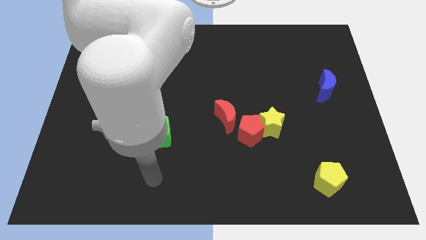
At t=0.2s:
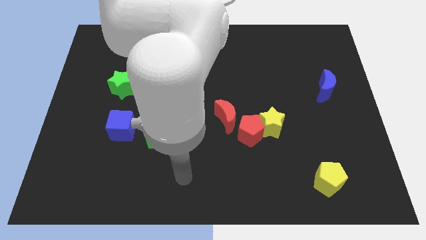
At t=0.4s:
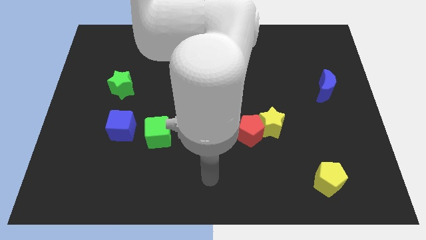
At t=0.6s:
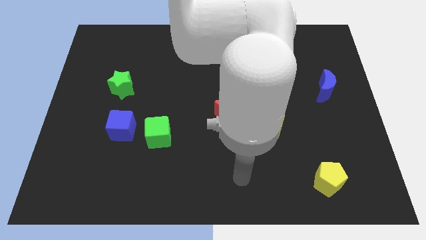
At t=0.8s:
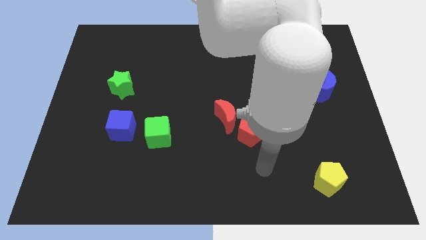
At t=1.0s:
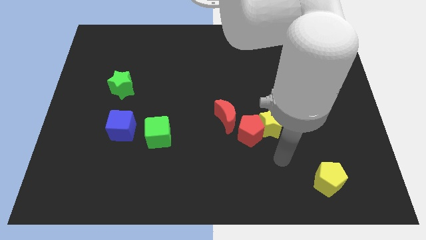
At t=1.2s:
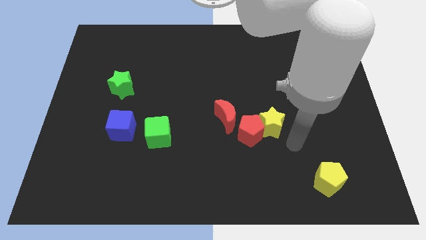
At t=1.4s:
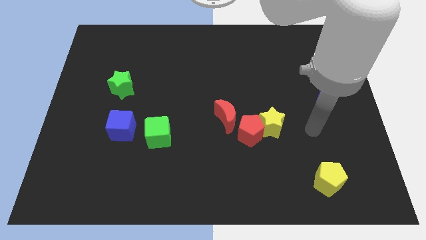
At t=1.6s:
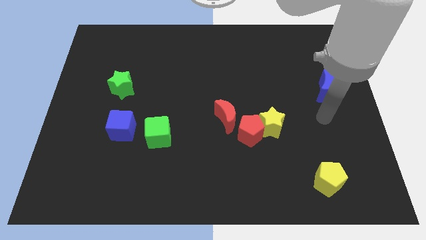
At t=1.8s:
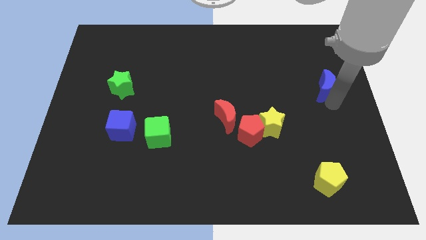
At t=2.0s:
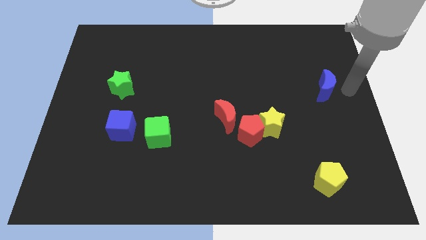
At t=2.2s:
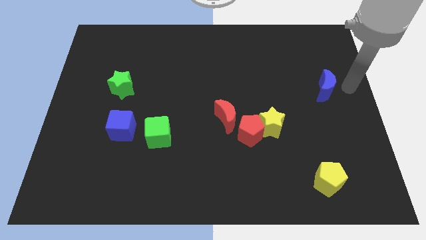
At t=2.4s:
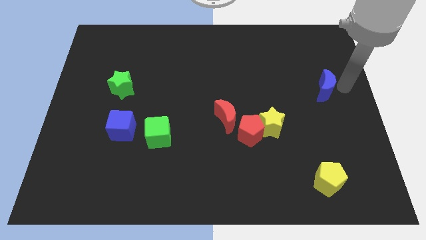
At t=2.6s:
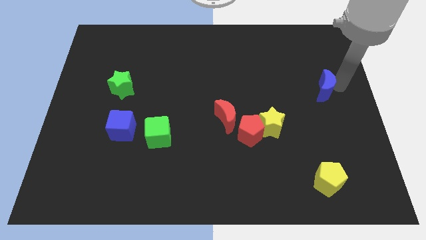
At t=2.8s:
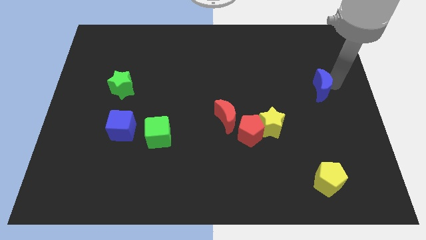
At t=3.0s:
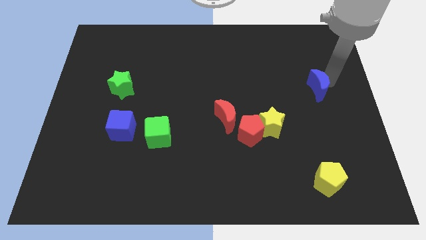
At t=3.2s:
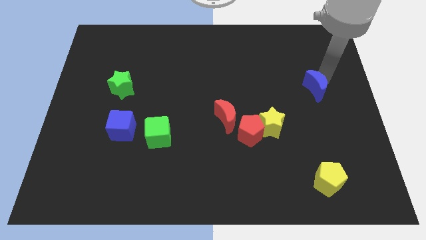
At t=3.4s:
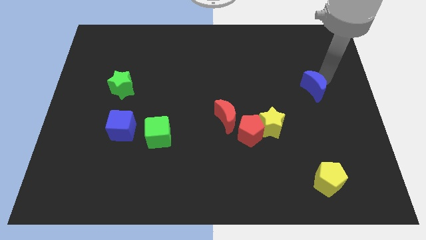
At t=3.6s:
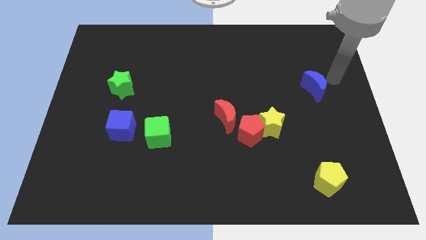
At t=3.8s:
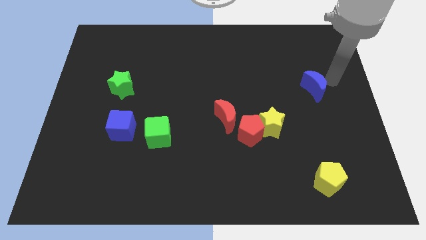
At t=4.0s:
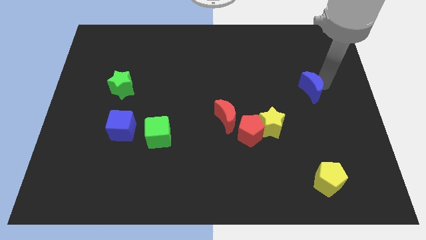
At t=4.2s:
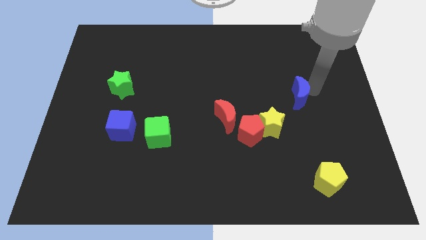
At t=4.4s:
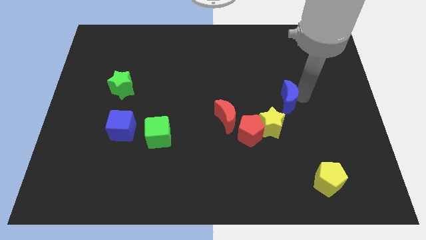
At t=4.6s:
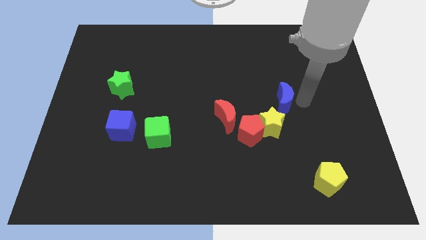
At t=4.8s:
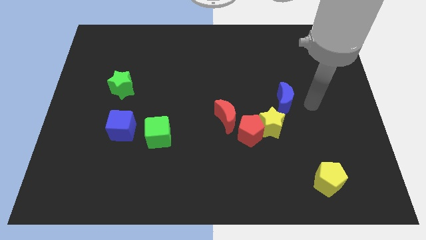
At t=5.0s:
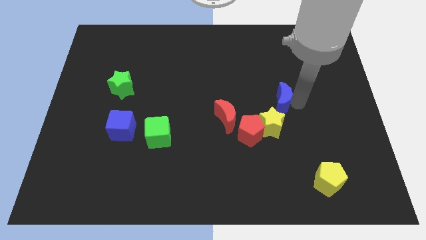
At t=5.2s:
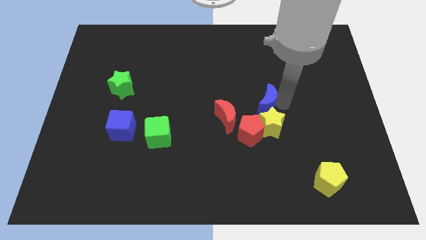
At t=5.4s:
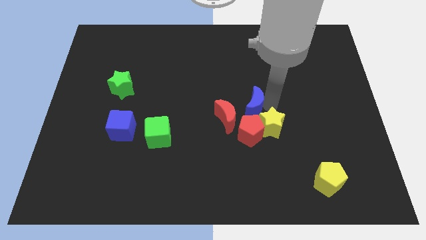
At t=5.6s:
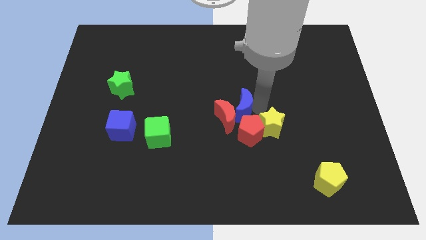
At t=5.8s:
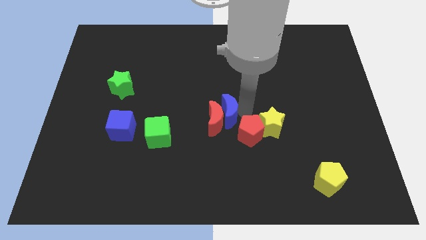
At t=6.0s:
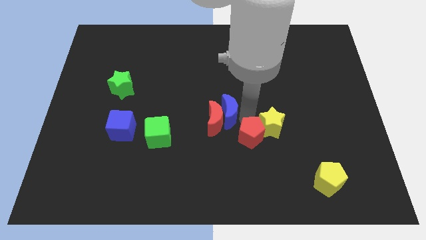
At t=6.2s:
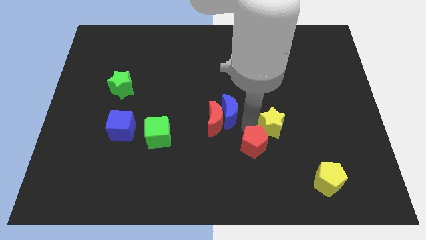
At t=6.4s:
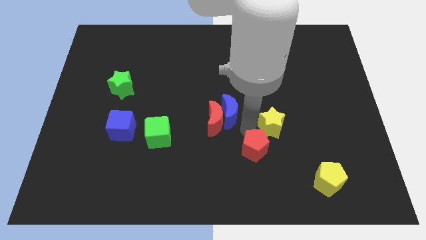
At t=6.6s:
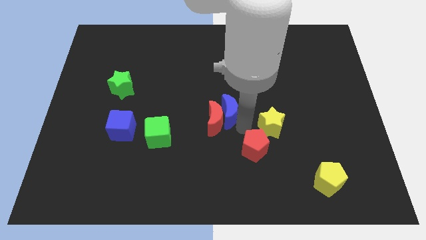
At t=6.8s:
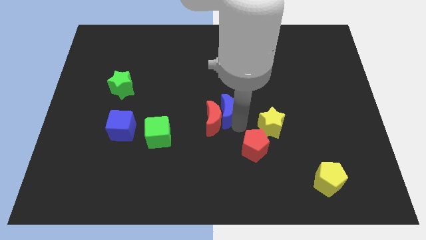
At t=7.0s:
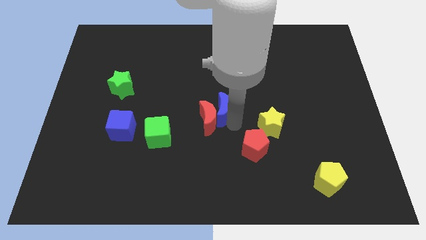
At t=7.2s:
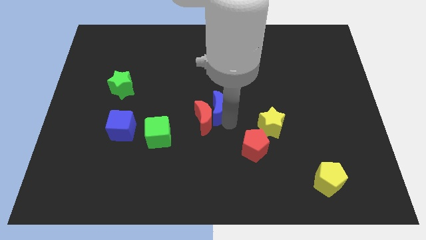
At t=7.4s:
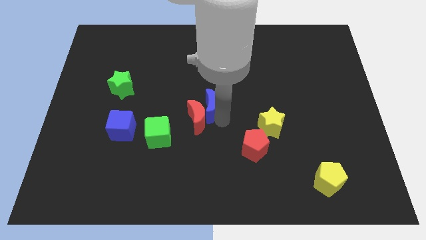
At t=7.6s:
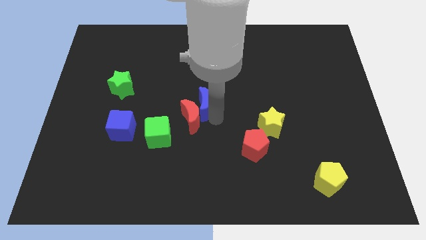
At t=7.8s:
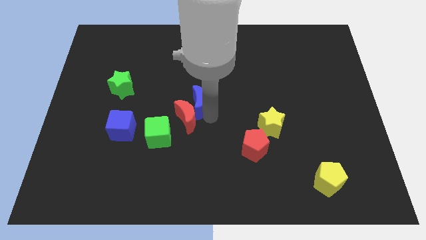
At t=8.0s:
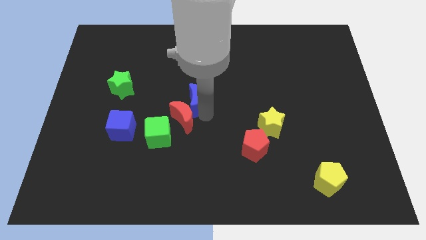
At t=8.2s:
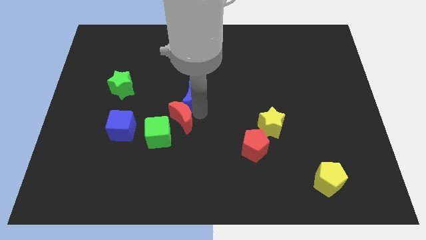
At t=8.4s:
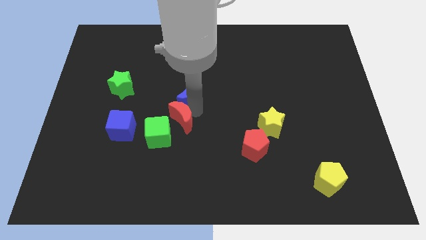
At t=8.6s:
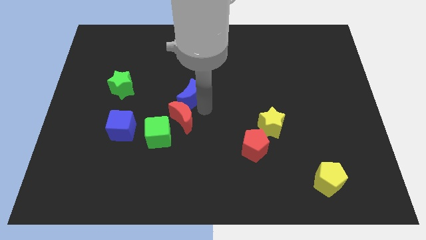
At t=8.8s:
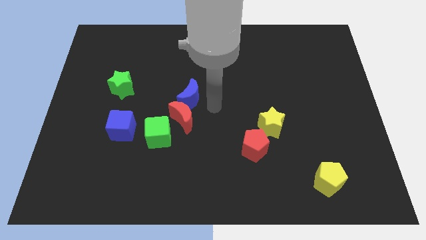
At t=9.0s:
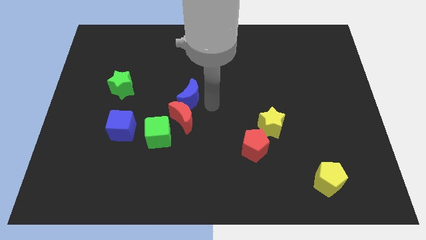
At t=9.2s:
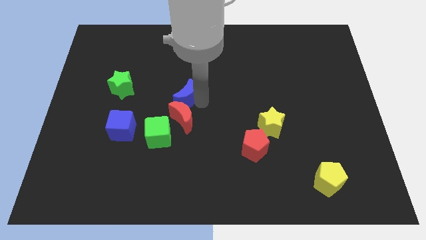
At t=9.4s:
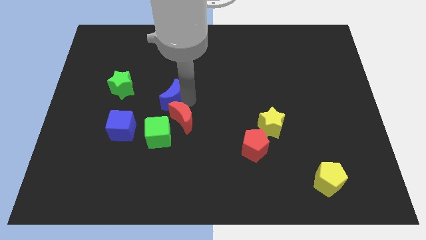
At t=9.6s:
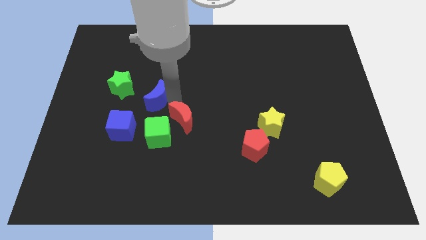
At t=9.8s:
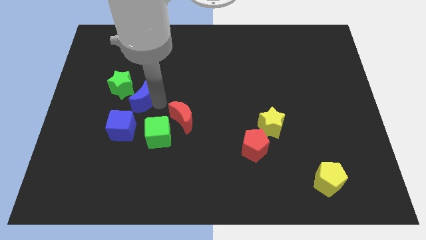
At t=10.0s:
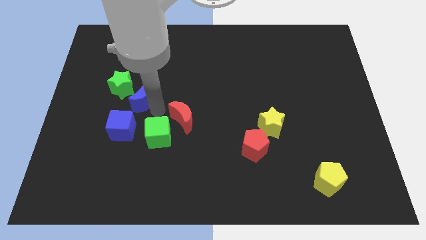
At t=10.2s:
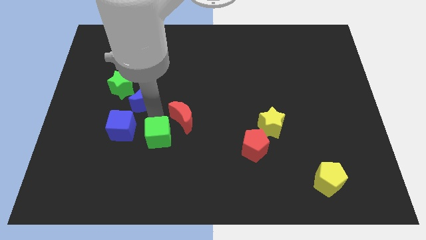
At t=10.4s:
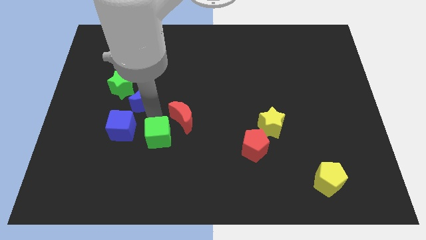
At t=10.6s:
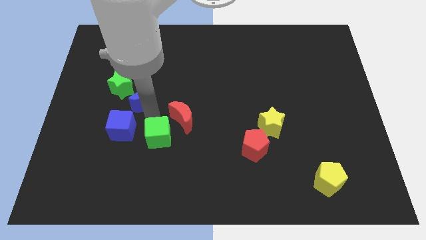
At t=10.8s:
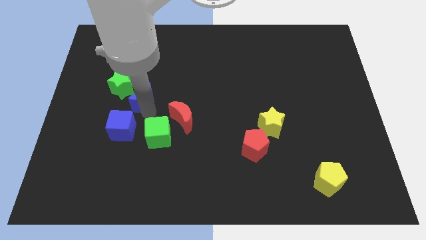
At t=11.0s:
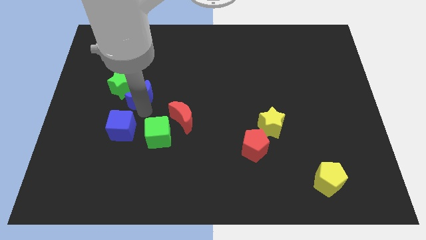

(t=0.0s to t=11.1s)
put the blue moon close to the green star

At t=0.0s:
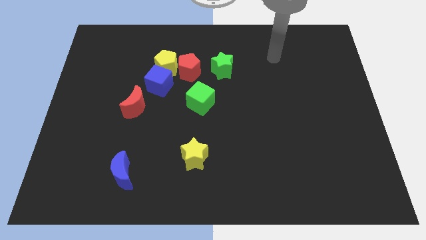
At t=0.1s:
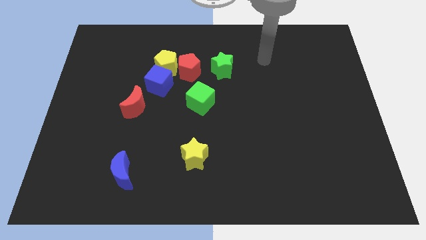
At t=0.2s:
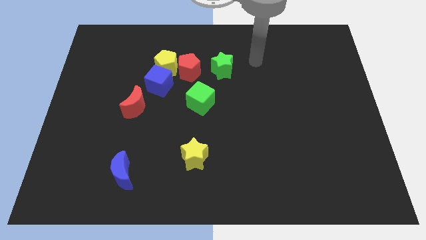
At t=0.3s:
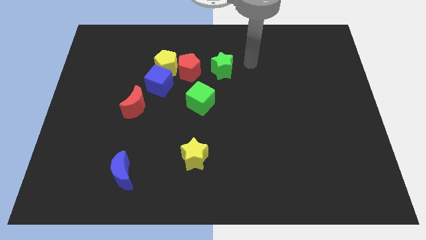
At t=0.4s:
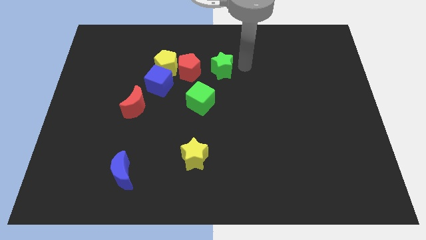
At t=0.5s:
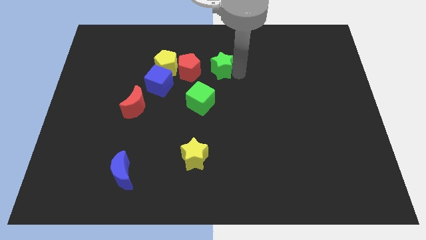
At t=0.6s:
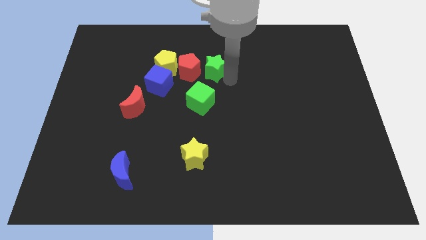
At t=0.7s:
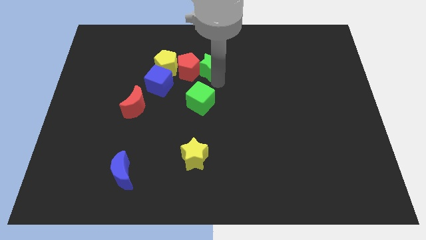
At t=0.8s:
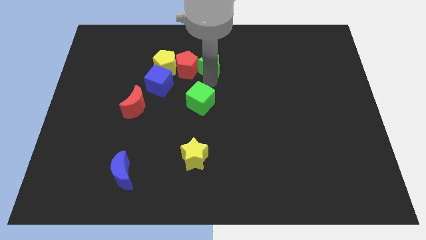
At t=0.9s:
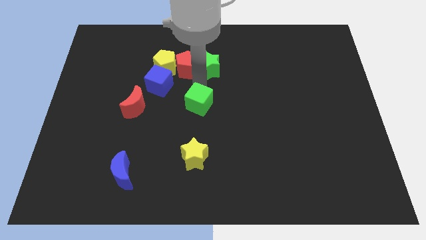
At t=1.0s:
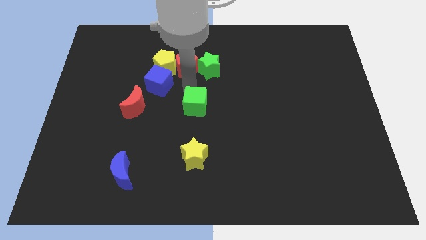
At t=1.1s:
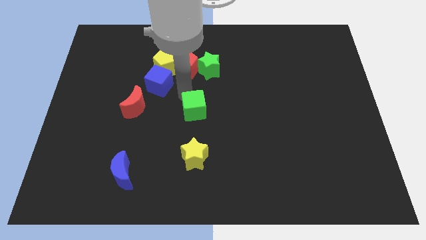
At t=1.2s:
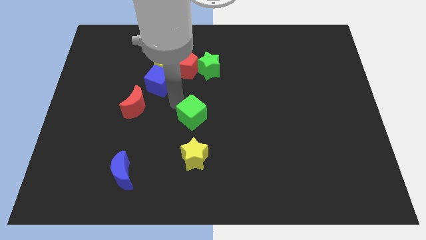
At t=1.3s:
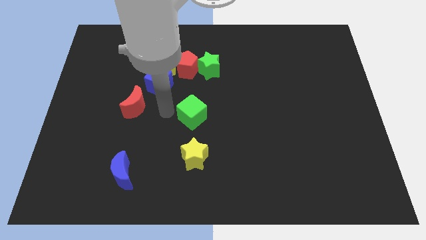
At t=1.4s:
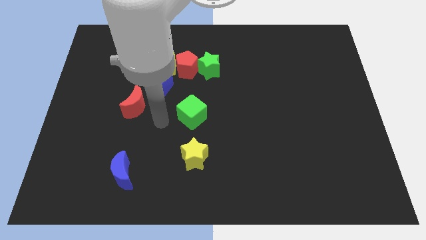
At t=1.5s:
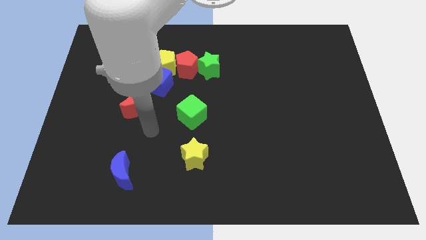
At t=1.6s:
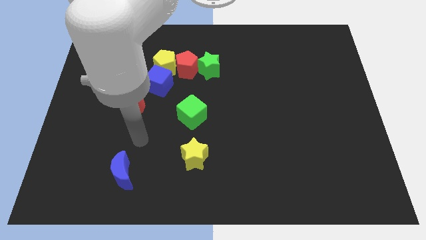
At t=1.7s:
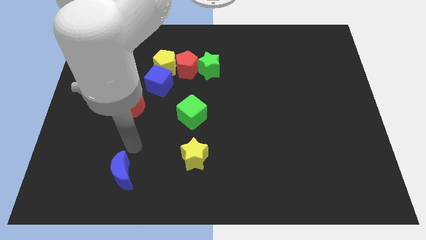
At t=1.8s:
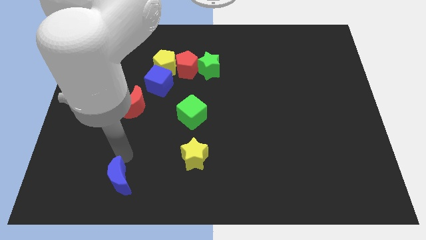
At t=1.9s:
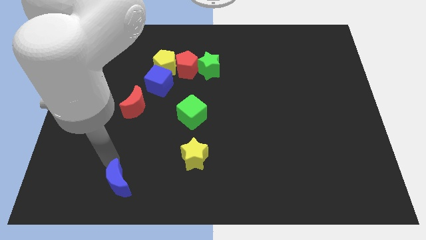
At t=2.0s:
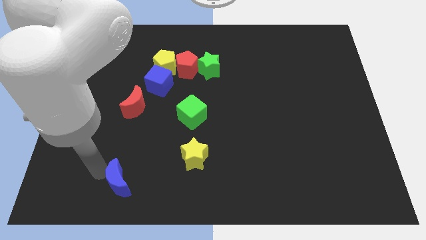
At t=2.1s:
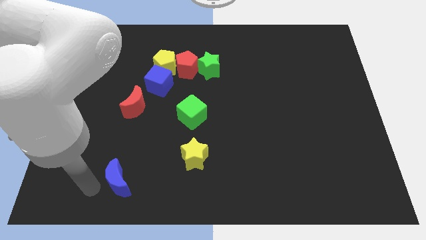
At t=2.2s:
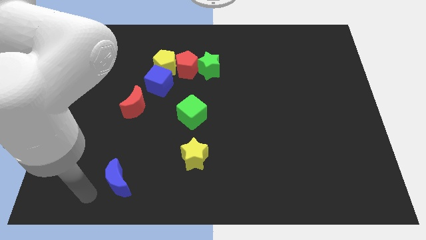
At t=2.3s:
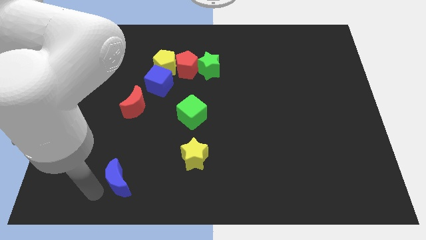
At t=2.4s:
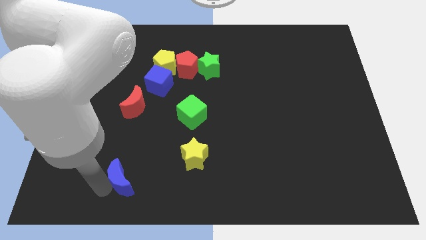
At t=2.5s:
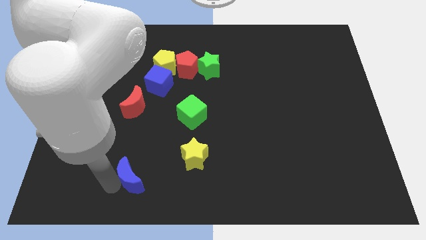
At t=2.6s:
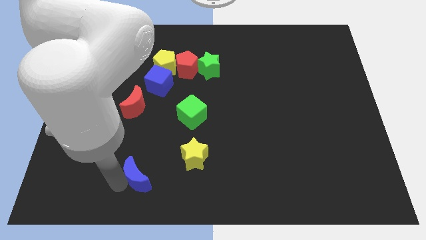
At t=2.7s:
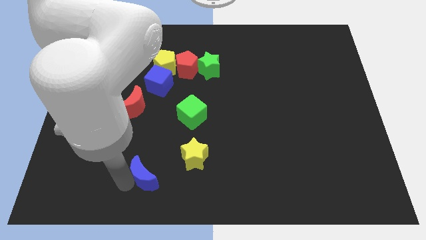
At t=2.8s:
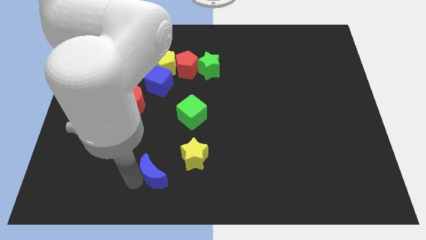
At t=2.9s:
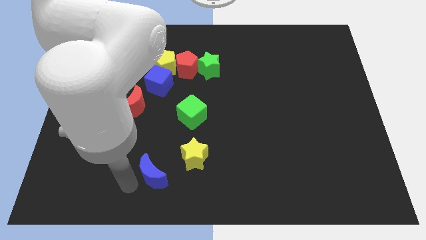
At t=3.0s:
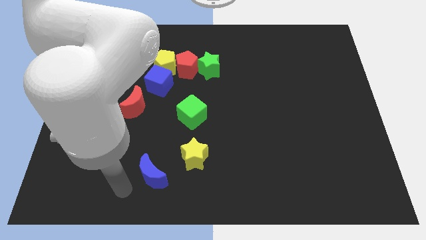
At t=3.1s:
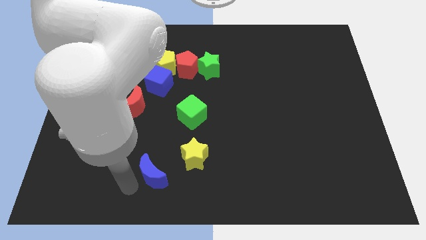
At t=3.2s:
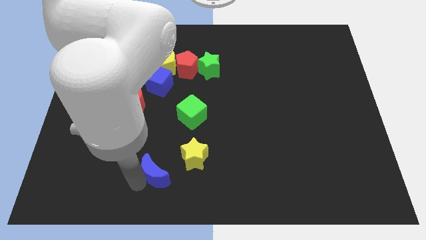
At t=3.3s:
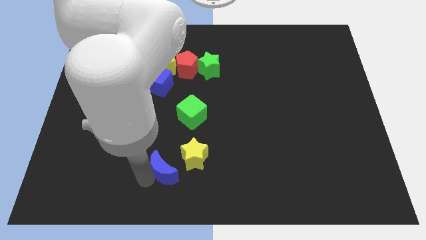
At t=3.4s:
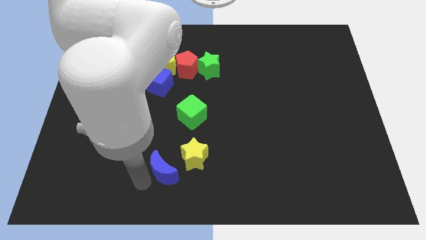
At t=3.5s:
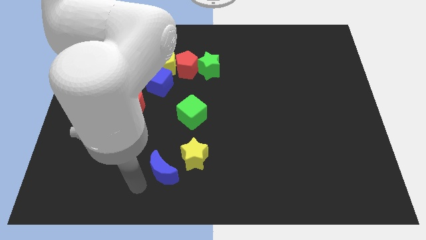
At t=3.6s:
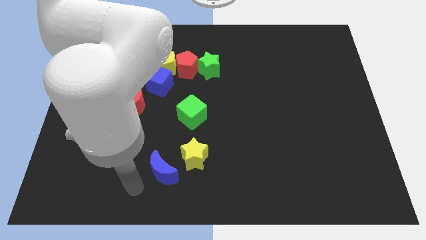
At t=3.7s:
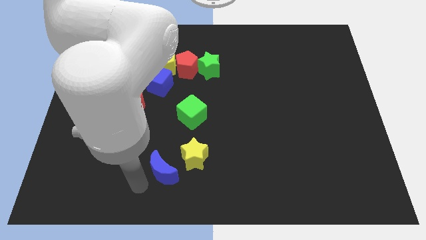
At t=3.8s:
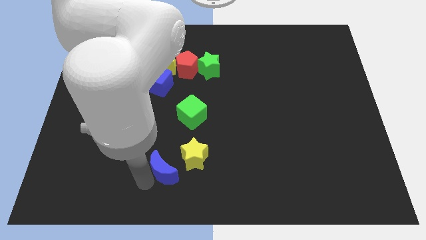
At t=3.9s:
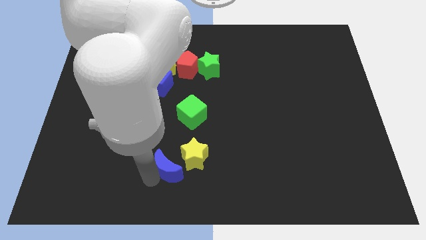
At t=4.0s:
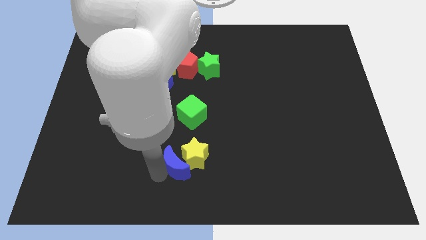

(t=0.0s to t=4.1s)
put the blue moon towards the yellow star
